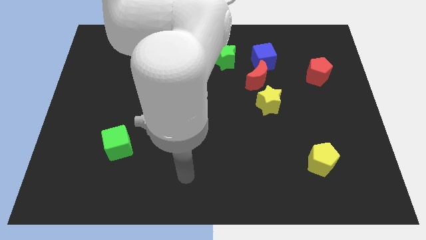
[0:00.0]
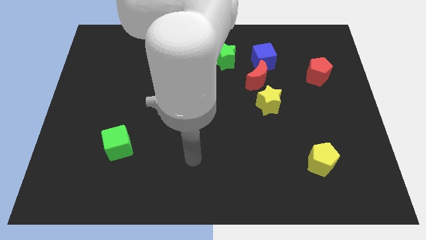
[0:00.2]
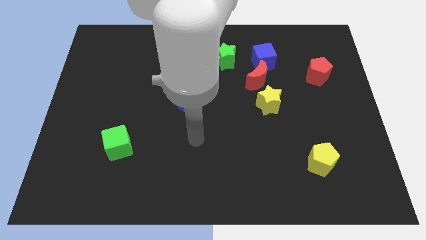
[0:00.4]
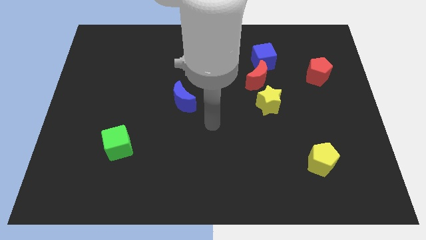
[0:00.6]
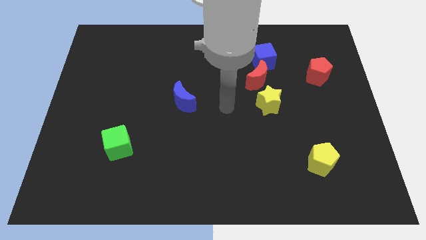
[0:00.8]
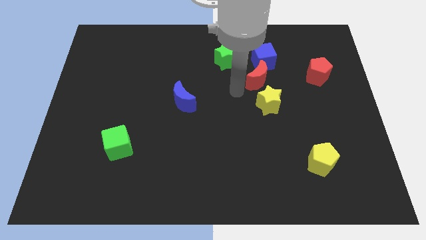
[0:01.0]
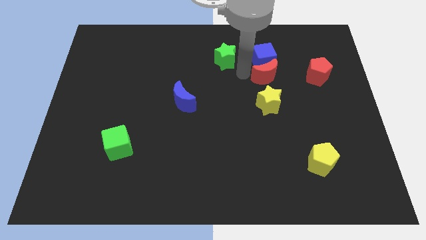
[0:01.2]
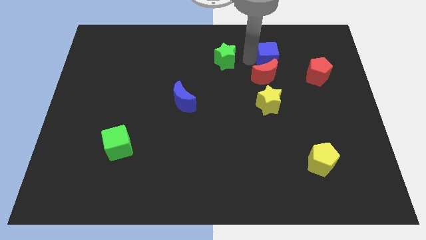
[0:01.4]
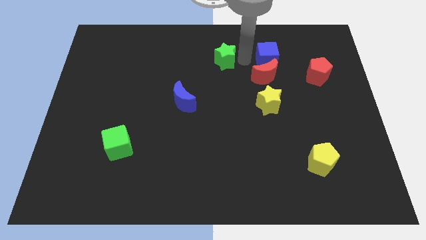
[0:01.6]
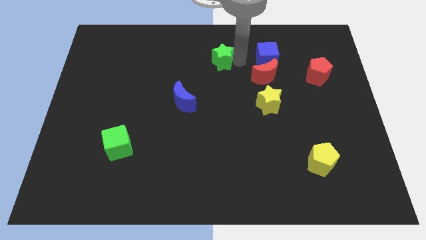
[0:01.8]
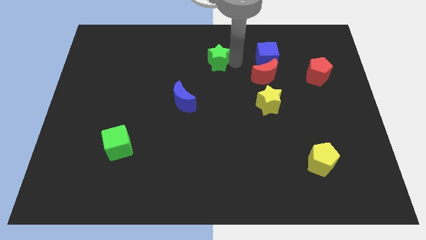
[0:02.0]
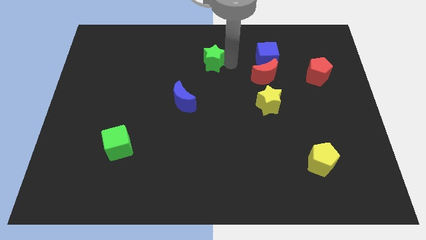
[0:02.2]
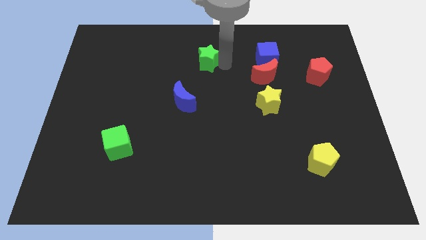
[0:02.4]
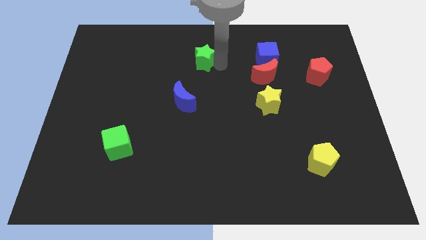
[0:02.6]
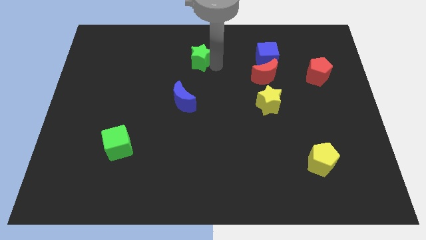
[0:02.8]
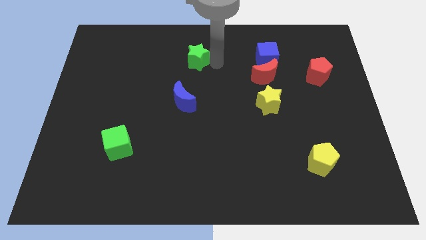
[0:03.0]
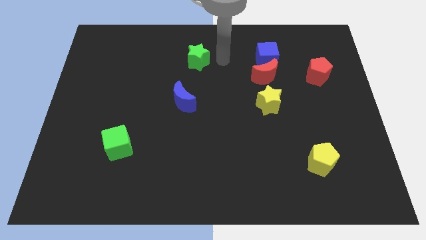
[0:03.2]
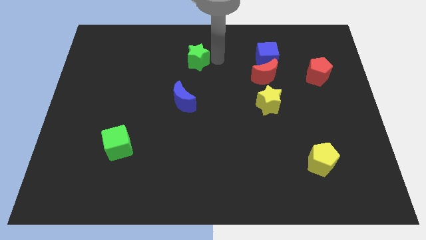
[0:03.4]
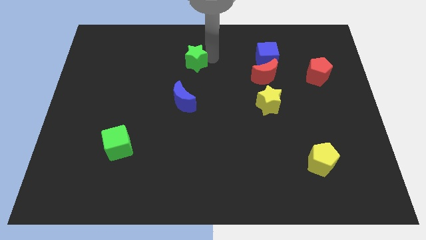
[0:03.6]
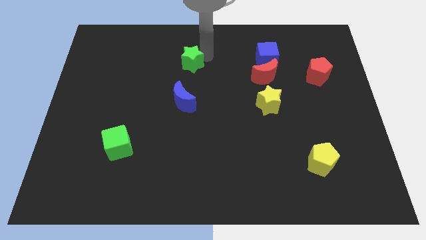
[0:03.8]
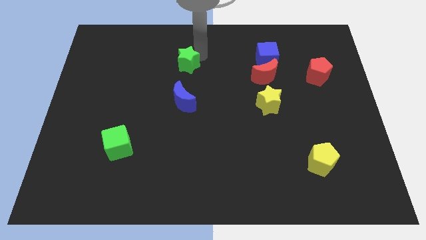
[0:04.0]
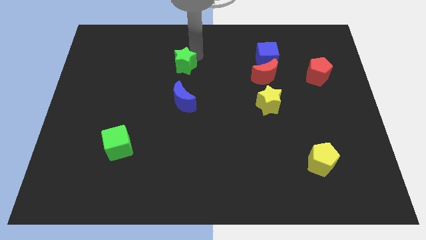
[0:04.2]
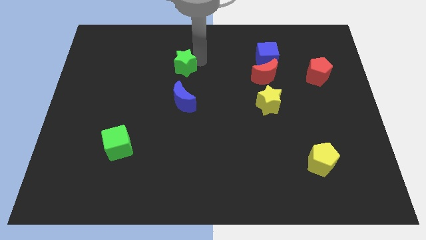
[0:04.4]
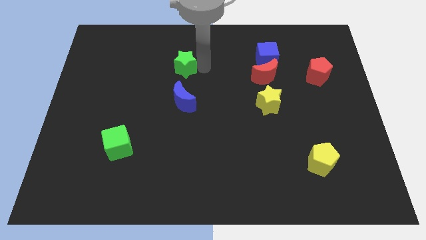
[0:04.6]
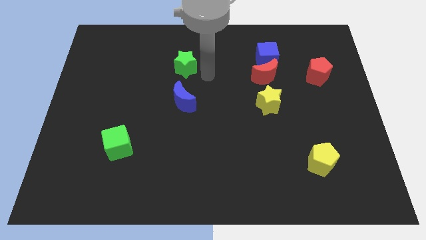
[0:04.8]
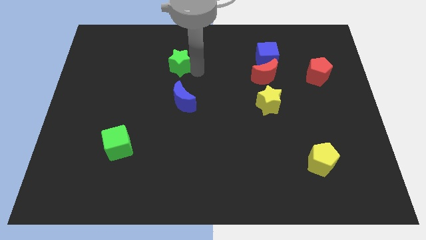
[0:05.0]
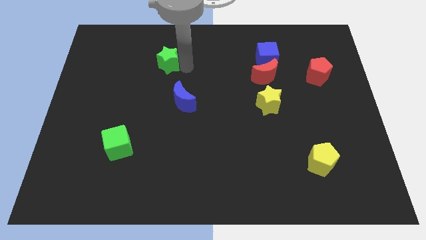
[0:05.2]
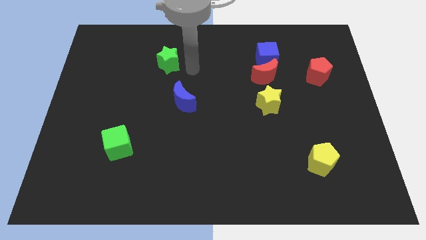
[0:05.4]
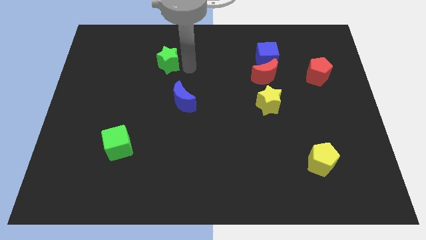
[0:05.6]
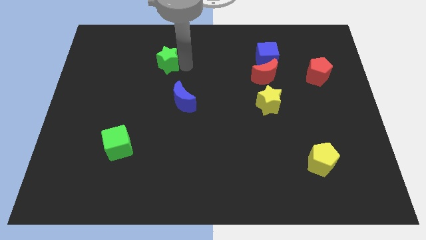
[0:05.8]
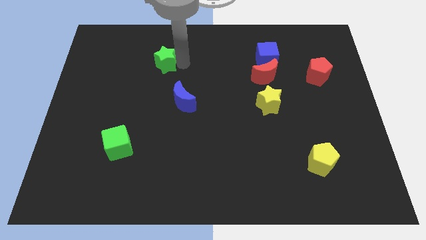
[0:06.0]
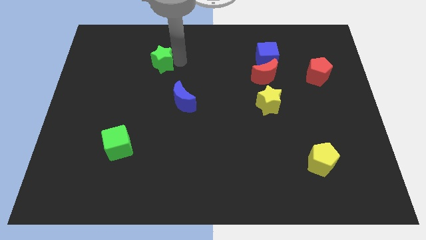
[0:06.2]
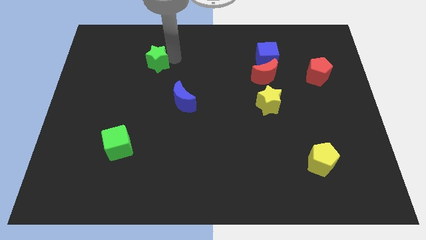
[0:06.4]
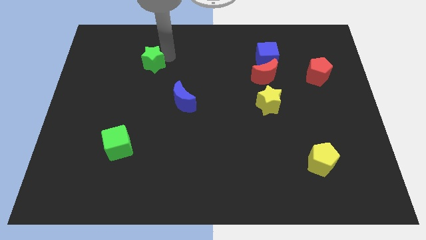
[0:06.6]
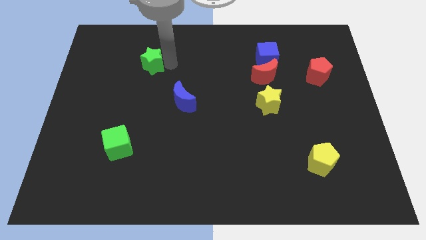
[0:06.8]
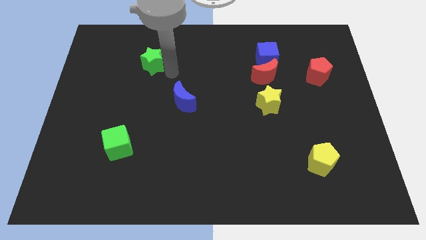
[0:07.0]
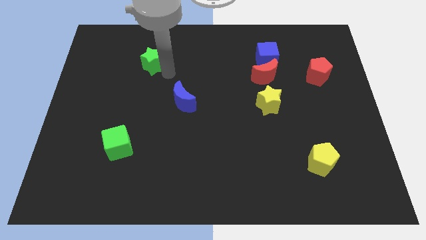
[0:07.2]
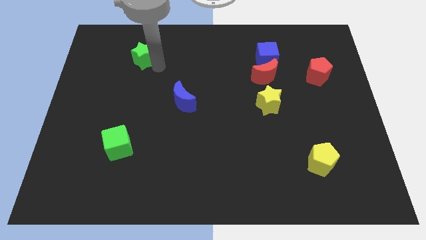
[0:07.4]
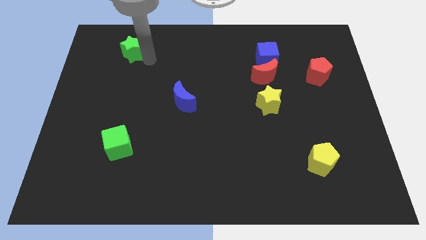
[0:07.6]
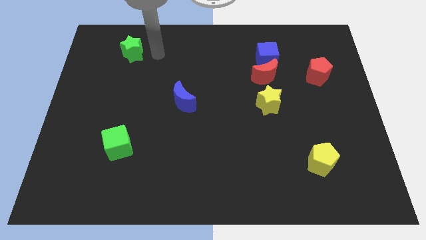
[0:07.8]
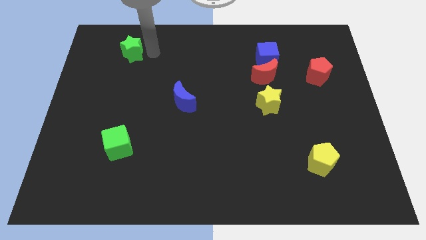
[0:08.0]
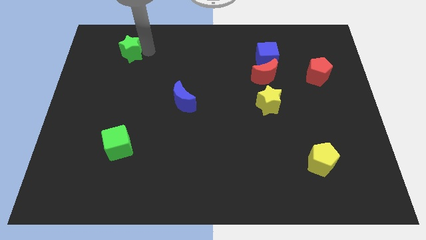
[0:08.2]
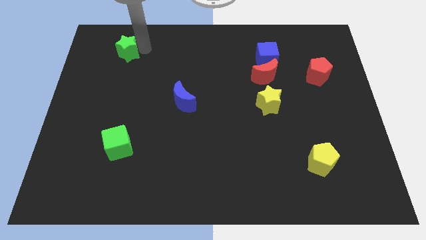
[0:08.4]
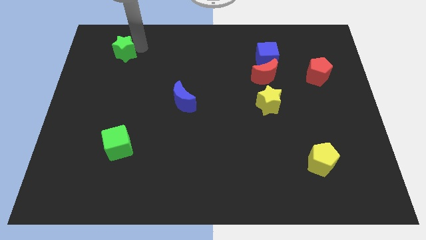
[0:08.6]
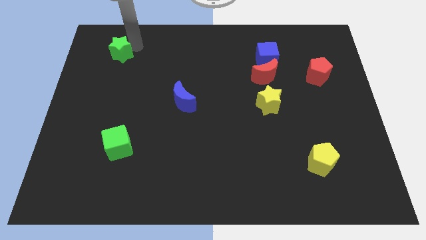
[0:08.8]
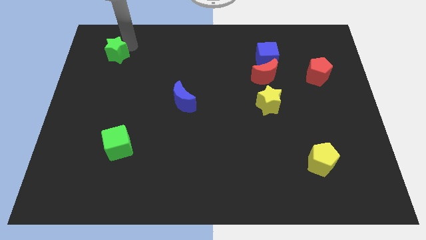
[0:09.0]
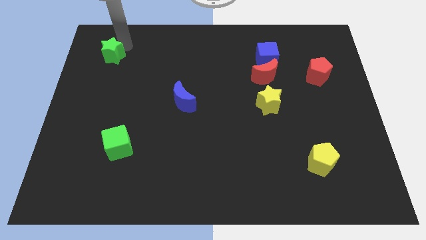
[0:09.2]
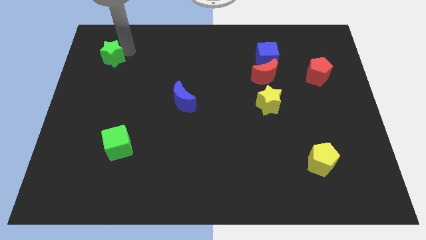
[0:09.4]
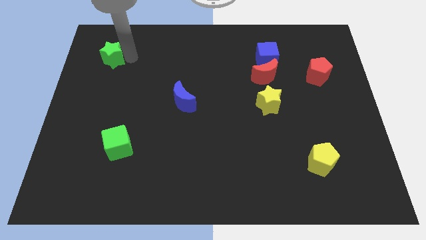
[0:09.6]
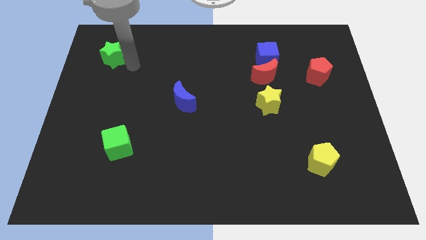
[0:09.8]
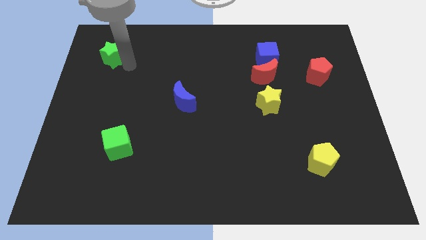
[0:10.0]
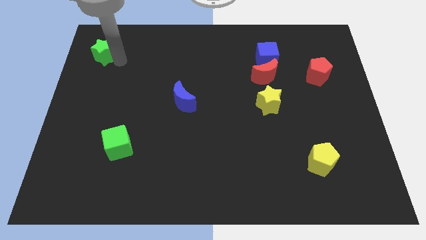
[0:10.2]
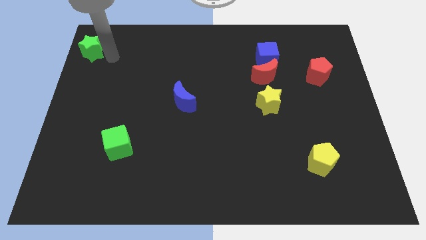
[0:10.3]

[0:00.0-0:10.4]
put the green star to the top left

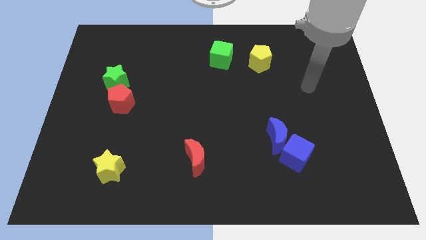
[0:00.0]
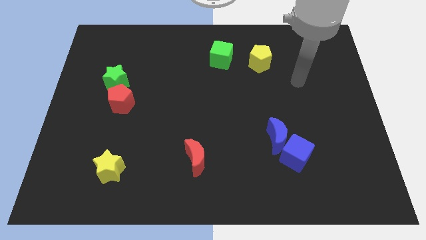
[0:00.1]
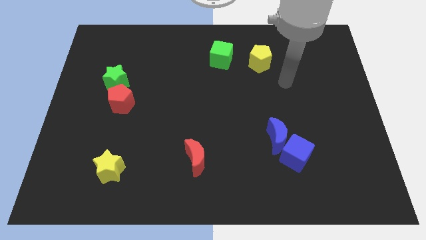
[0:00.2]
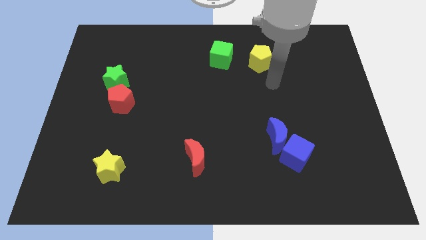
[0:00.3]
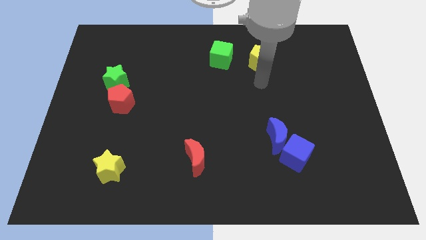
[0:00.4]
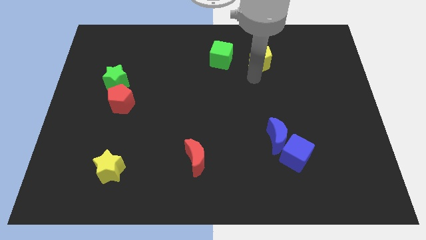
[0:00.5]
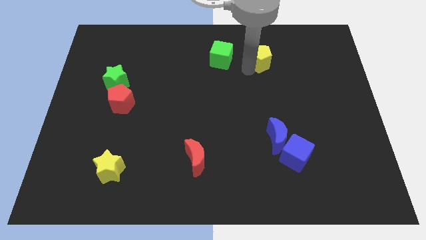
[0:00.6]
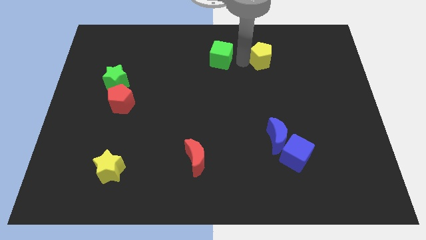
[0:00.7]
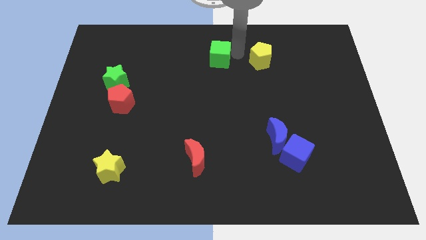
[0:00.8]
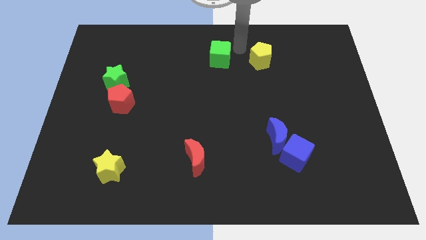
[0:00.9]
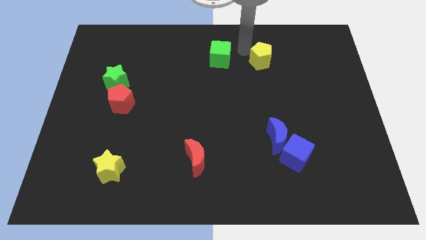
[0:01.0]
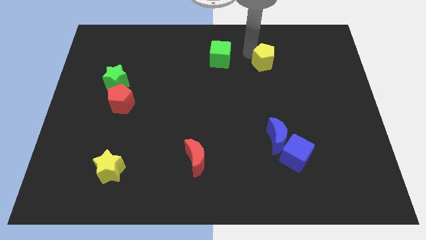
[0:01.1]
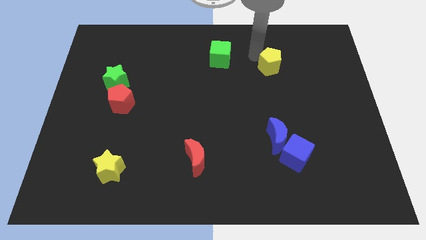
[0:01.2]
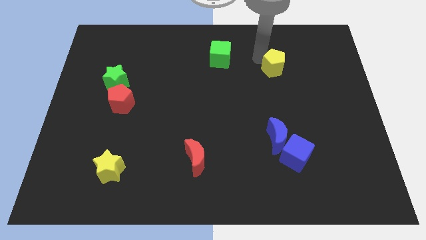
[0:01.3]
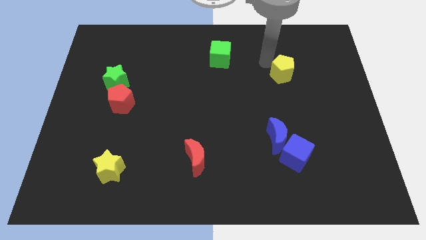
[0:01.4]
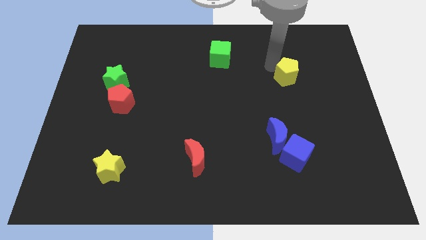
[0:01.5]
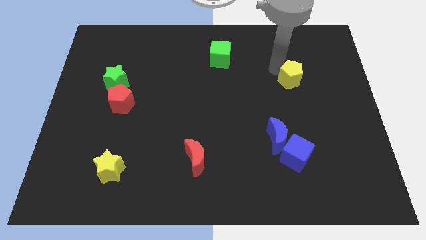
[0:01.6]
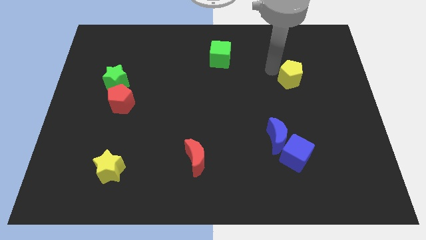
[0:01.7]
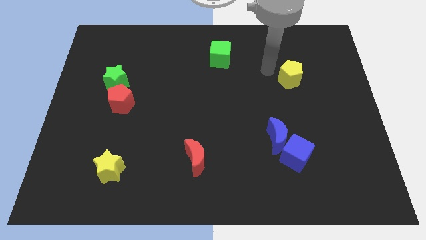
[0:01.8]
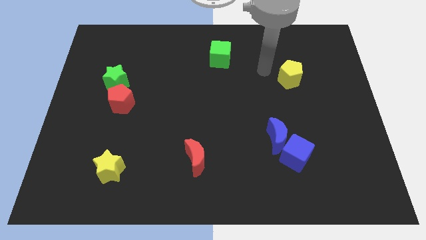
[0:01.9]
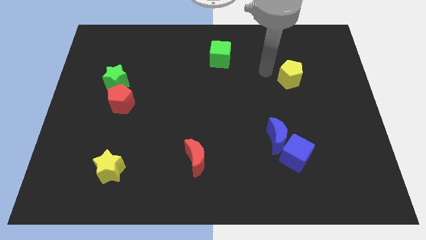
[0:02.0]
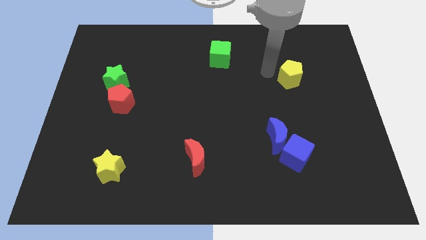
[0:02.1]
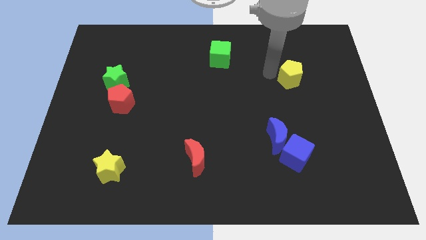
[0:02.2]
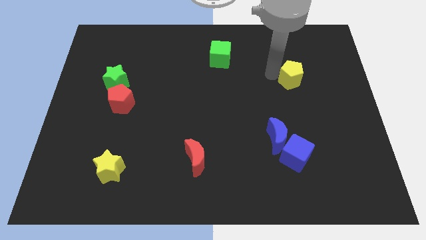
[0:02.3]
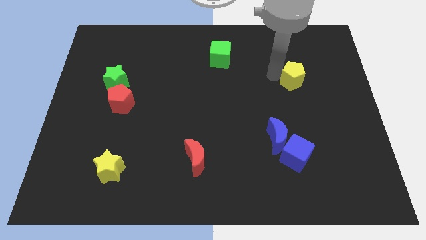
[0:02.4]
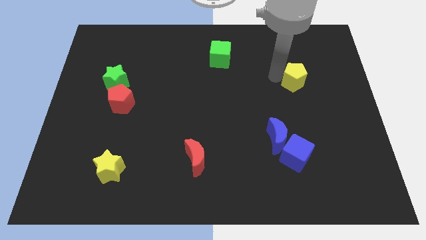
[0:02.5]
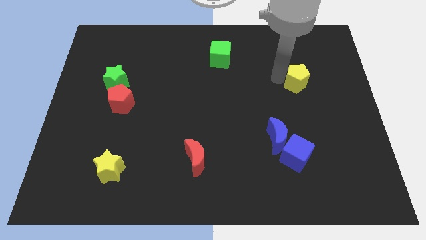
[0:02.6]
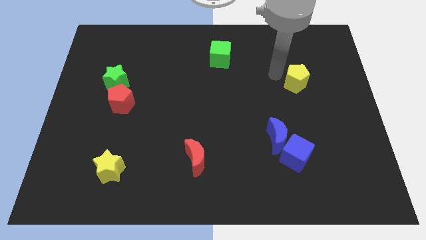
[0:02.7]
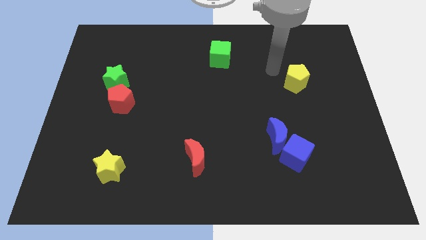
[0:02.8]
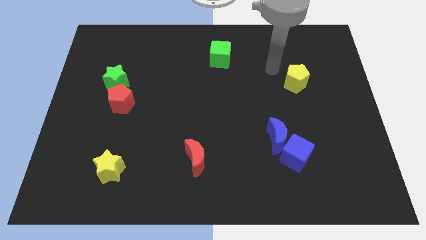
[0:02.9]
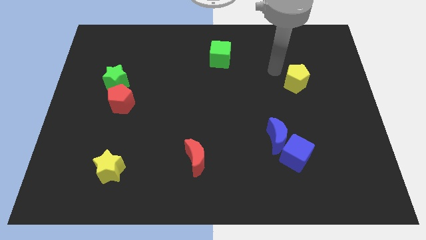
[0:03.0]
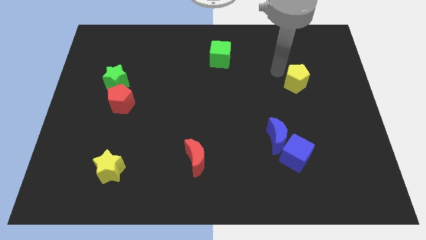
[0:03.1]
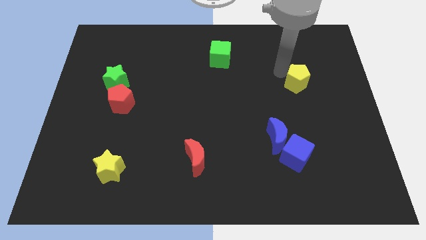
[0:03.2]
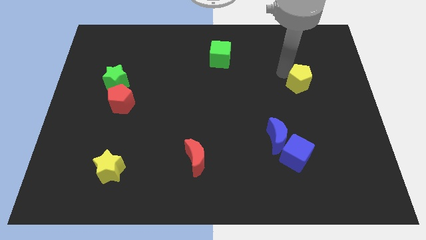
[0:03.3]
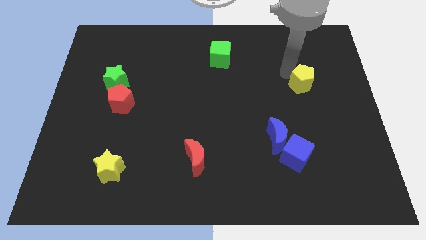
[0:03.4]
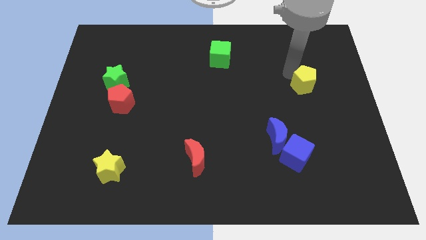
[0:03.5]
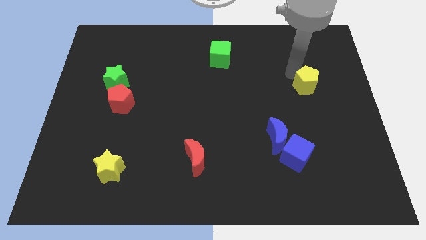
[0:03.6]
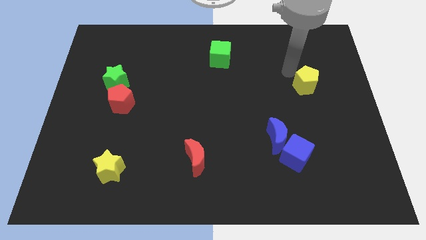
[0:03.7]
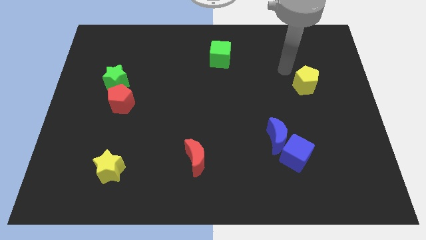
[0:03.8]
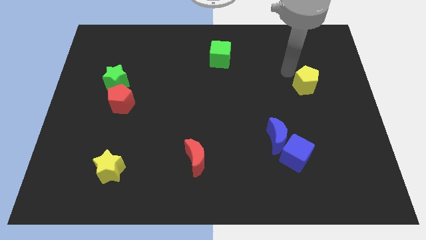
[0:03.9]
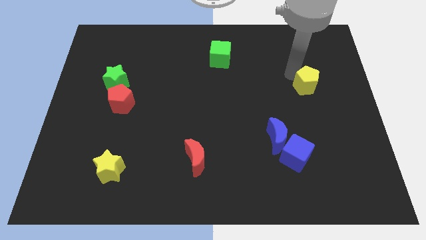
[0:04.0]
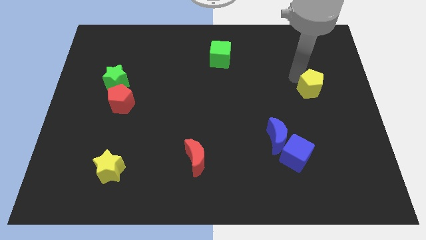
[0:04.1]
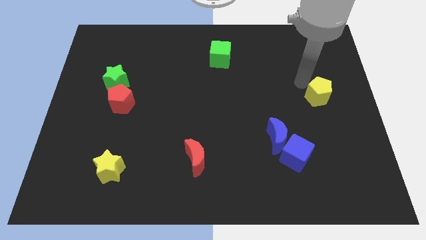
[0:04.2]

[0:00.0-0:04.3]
slide the yellow pentagon to the right side of the board
